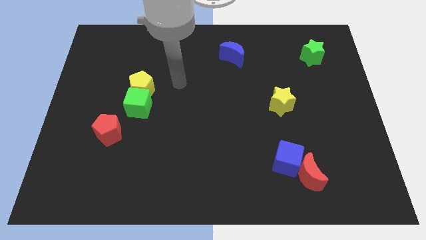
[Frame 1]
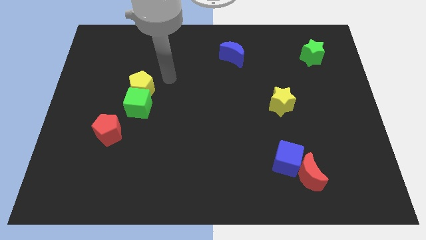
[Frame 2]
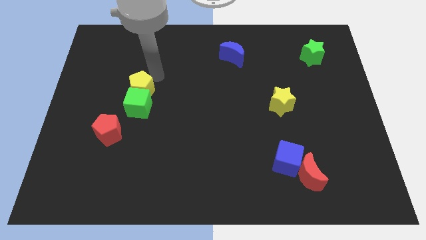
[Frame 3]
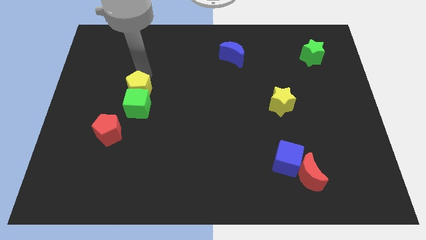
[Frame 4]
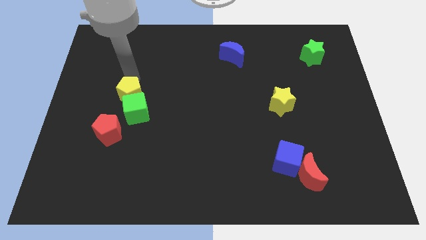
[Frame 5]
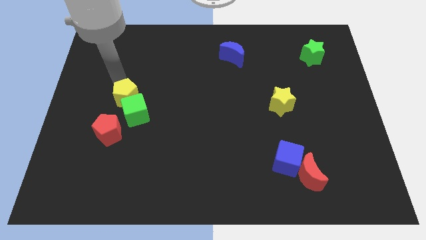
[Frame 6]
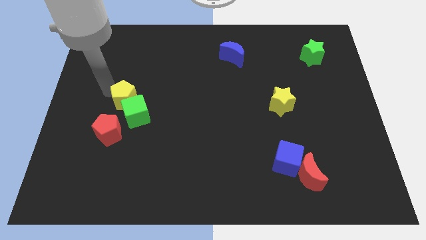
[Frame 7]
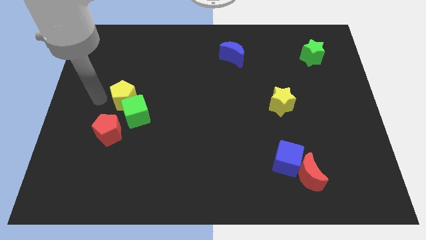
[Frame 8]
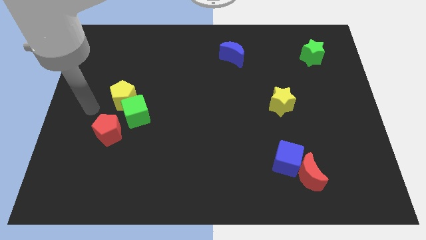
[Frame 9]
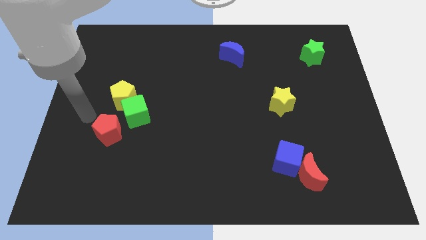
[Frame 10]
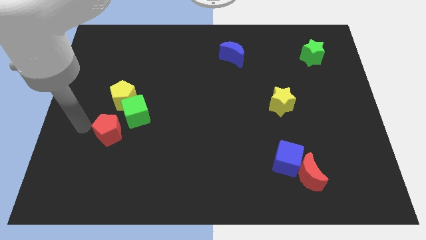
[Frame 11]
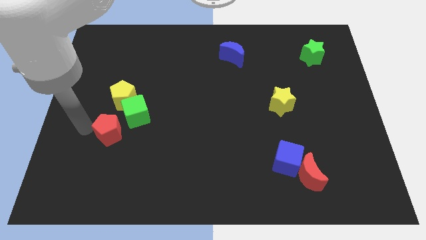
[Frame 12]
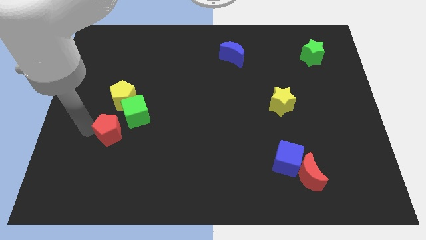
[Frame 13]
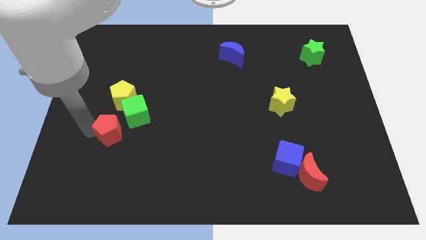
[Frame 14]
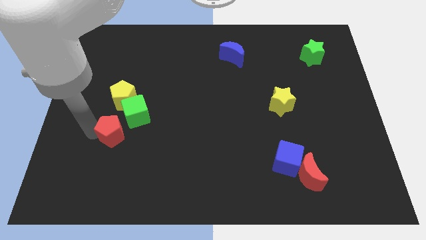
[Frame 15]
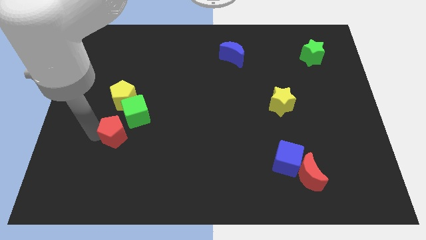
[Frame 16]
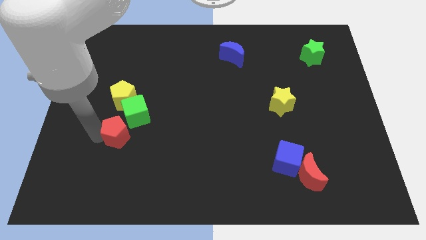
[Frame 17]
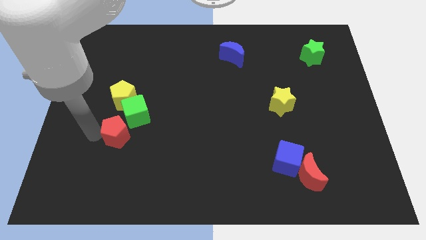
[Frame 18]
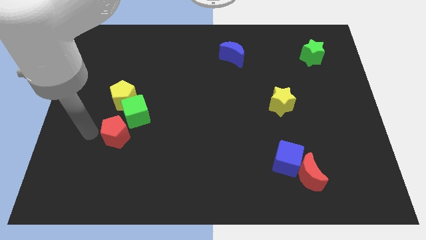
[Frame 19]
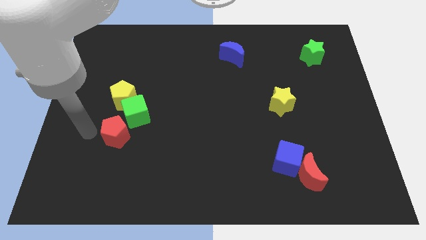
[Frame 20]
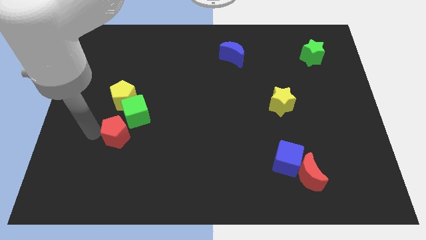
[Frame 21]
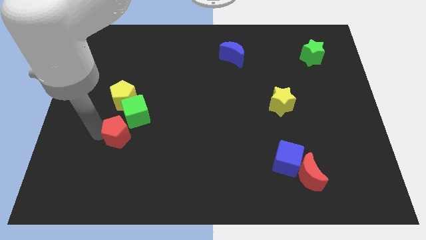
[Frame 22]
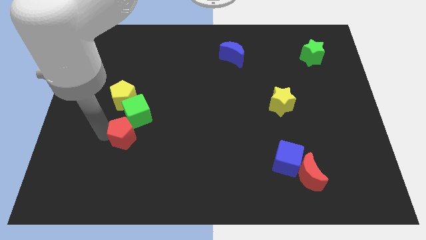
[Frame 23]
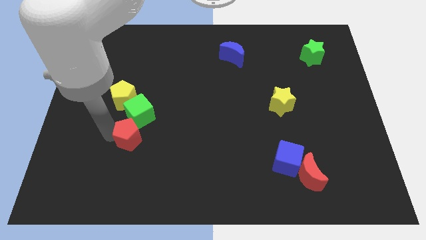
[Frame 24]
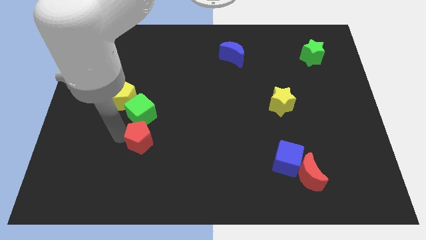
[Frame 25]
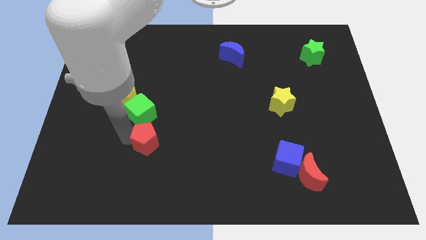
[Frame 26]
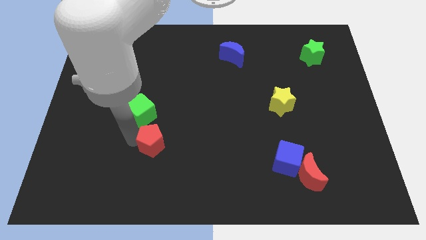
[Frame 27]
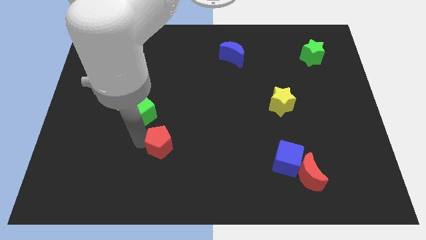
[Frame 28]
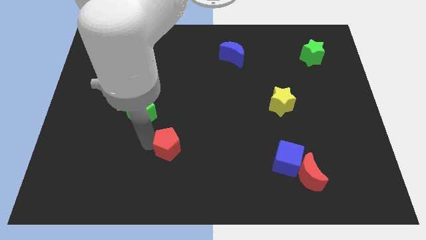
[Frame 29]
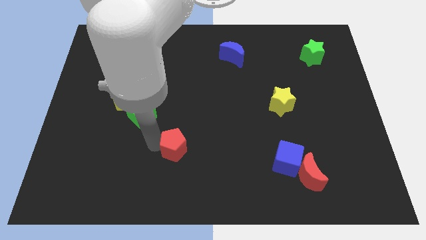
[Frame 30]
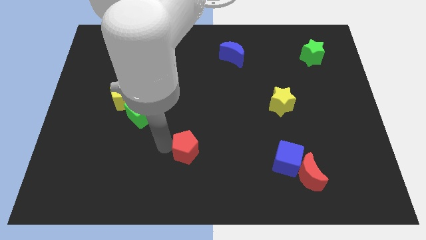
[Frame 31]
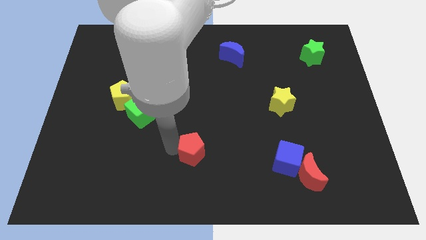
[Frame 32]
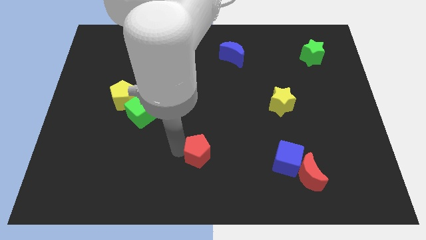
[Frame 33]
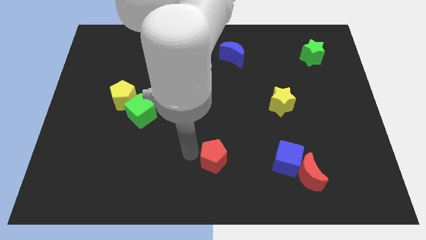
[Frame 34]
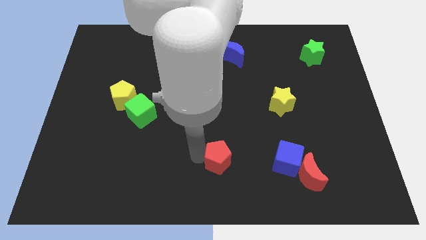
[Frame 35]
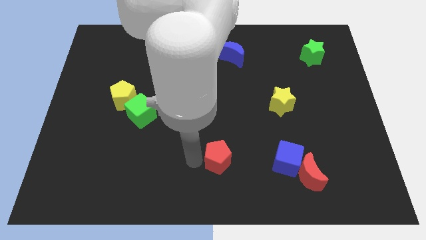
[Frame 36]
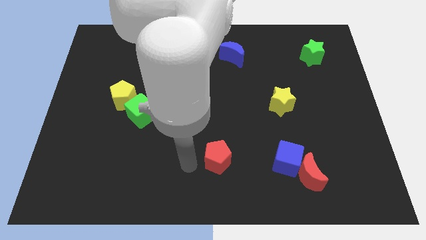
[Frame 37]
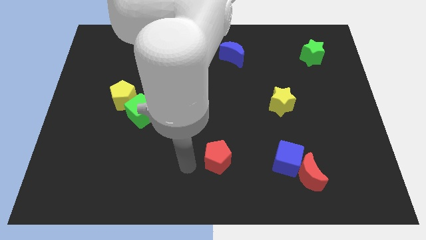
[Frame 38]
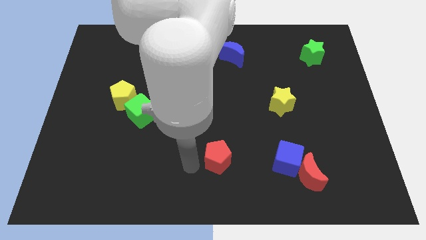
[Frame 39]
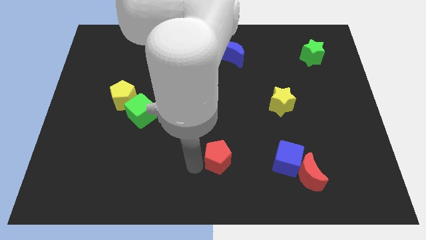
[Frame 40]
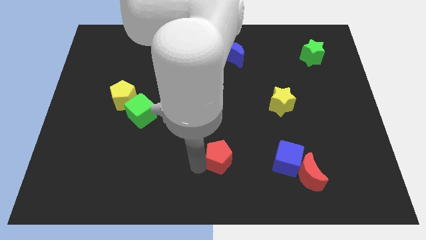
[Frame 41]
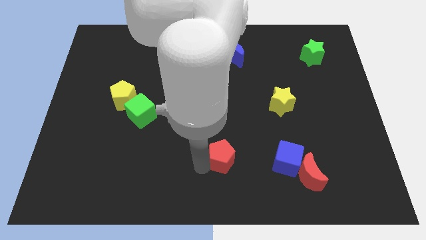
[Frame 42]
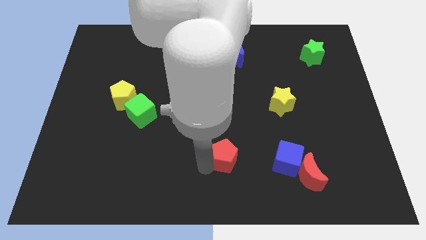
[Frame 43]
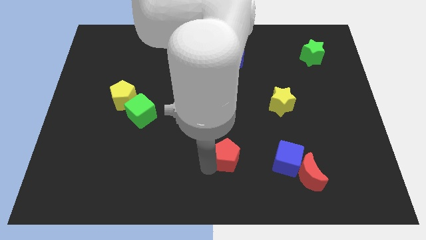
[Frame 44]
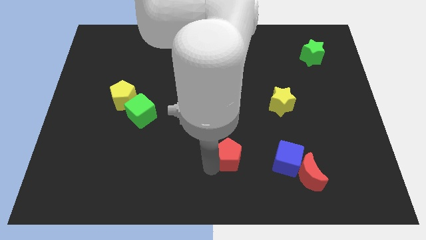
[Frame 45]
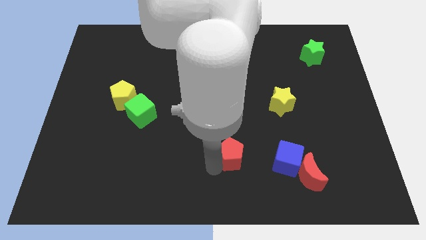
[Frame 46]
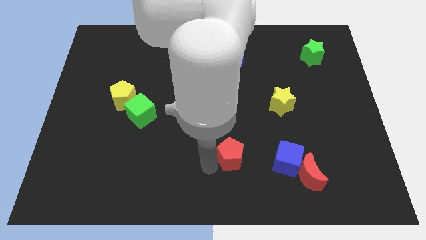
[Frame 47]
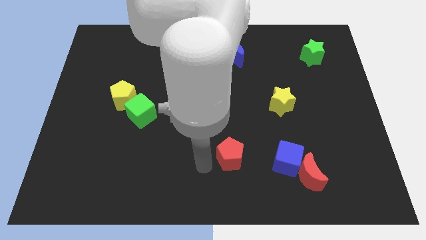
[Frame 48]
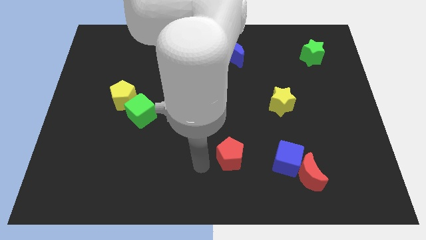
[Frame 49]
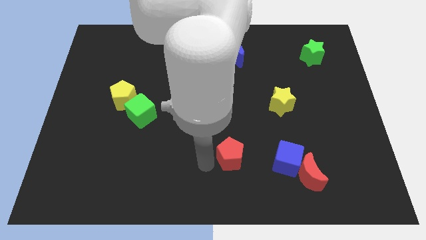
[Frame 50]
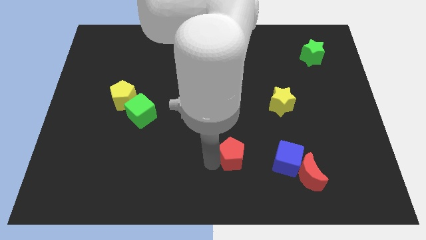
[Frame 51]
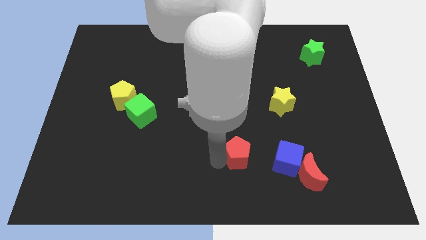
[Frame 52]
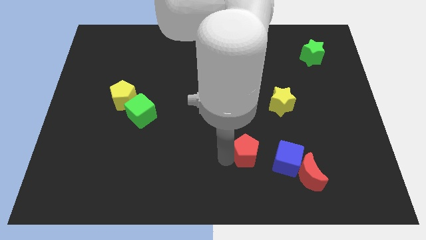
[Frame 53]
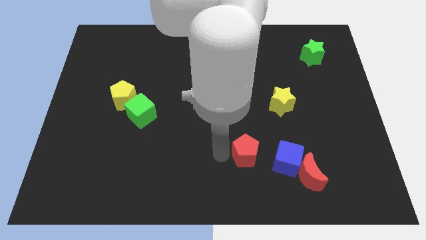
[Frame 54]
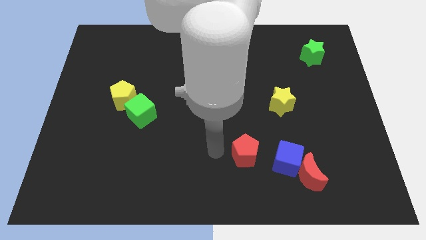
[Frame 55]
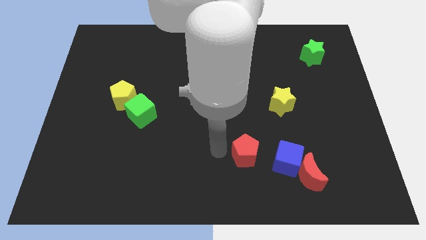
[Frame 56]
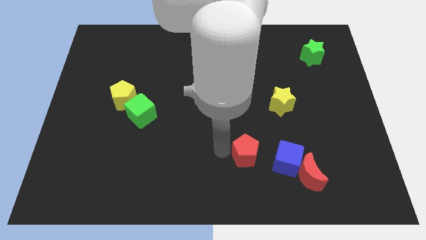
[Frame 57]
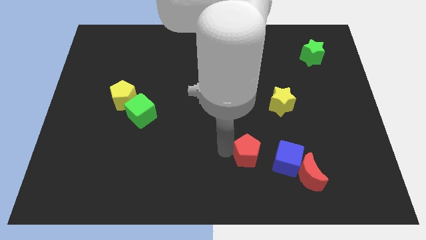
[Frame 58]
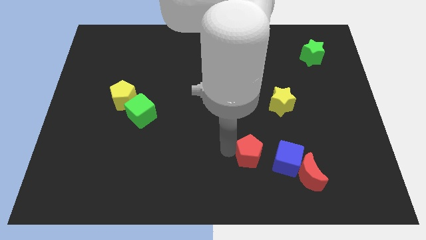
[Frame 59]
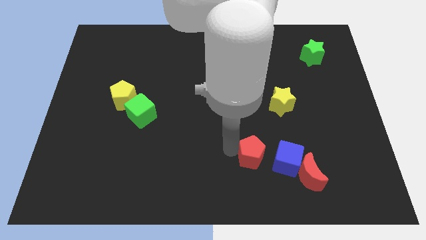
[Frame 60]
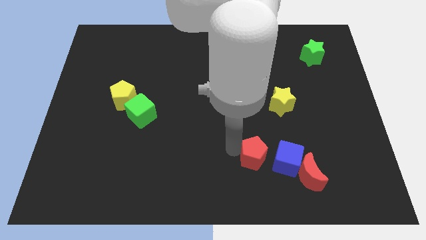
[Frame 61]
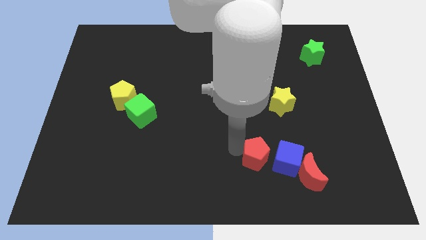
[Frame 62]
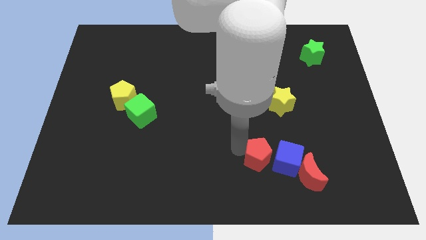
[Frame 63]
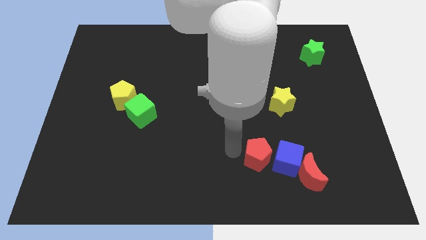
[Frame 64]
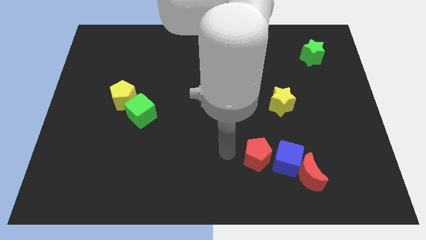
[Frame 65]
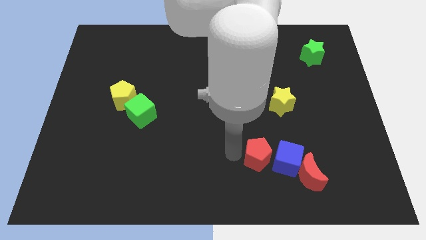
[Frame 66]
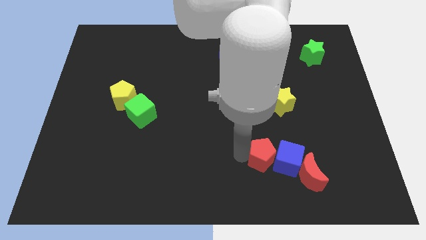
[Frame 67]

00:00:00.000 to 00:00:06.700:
push the red pentagon next to the blue cube
